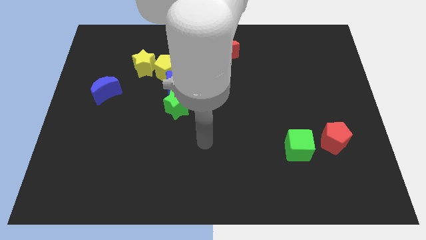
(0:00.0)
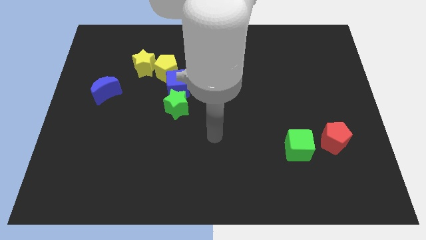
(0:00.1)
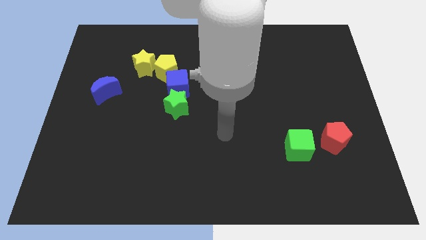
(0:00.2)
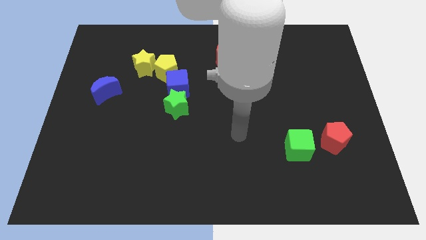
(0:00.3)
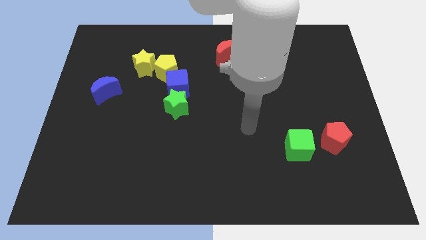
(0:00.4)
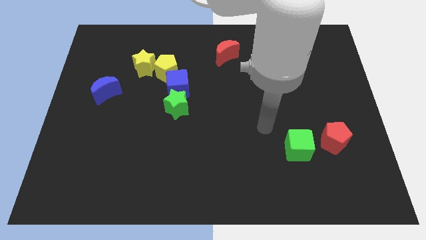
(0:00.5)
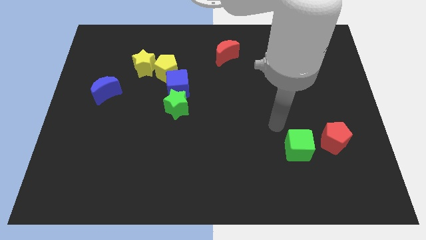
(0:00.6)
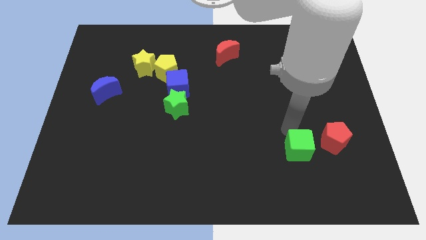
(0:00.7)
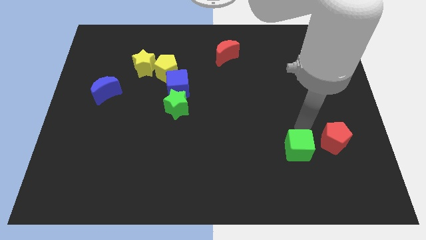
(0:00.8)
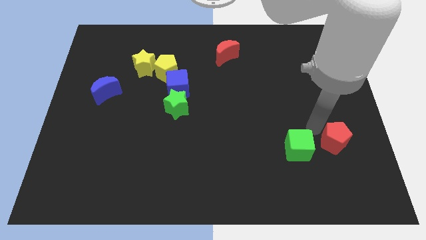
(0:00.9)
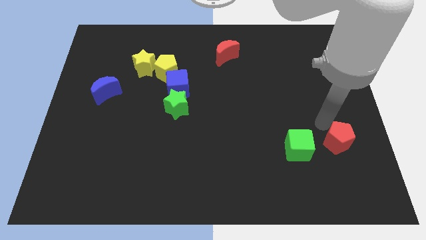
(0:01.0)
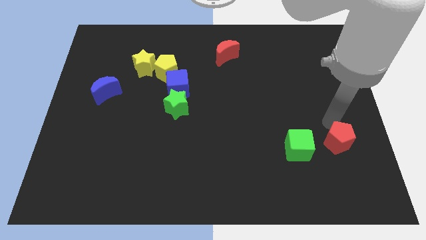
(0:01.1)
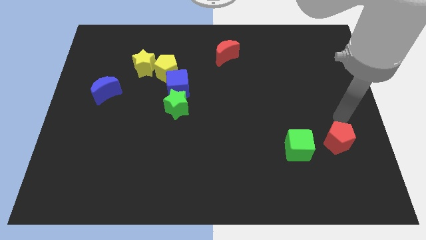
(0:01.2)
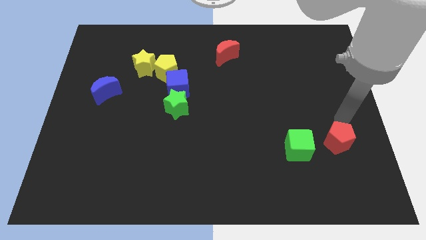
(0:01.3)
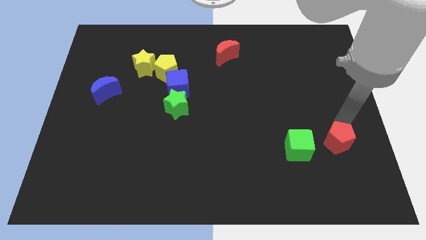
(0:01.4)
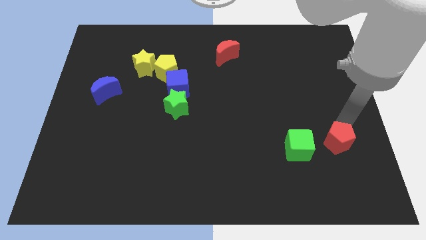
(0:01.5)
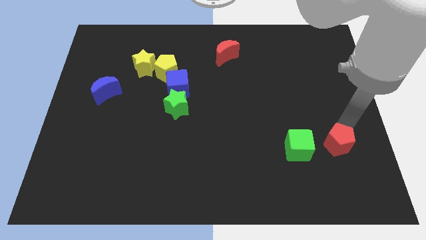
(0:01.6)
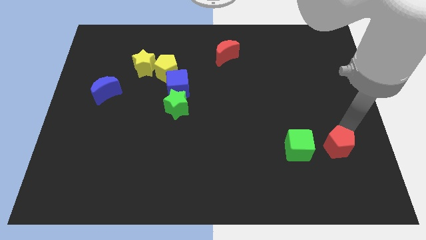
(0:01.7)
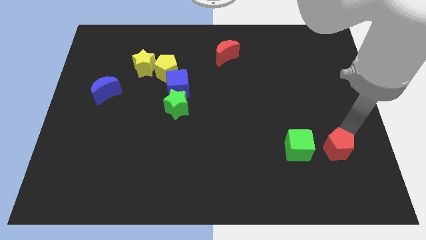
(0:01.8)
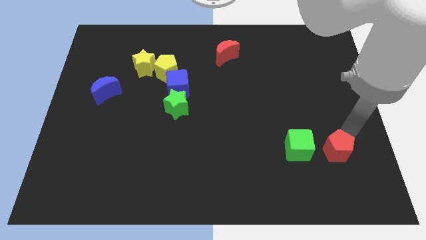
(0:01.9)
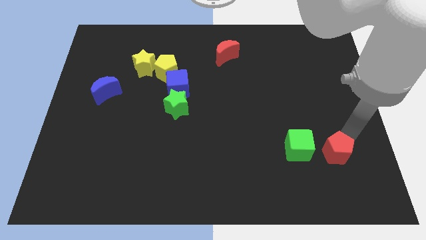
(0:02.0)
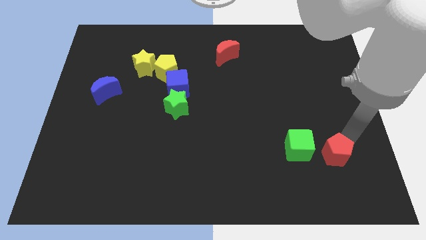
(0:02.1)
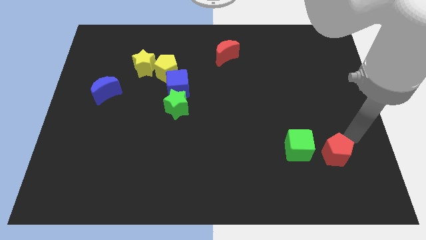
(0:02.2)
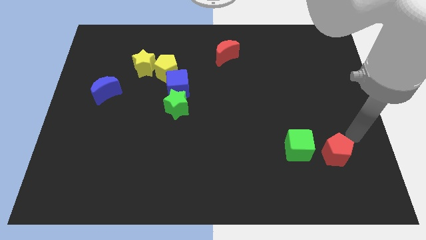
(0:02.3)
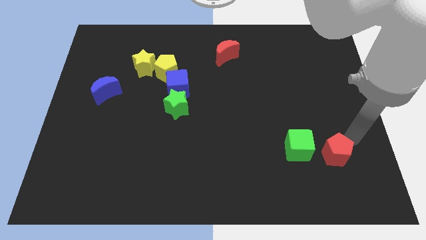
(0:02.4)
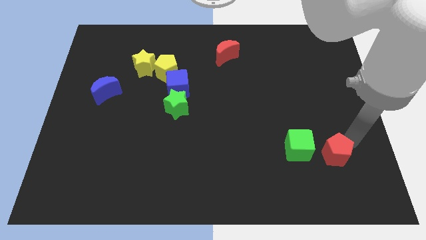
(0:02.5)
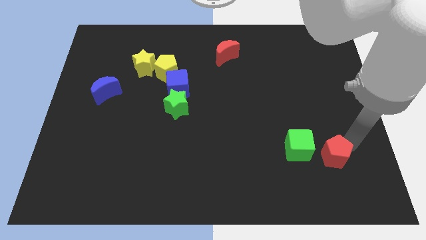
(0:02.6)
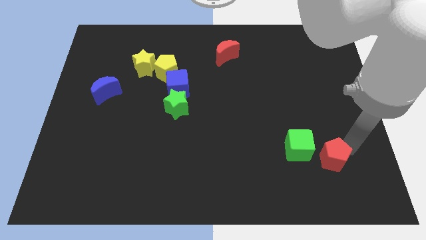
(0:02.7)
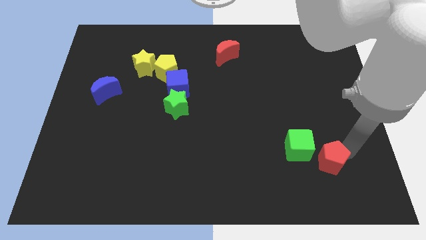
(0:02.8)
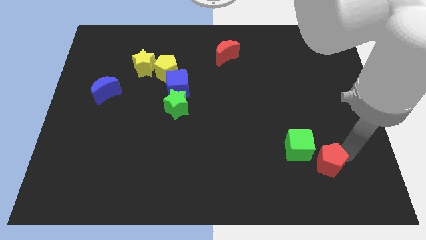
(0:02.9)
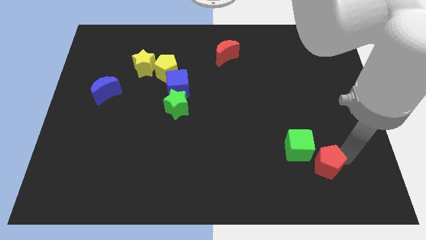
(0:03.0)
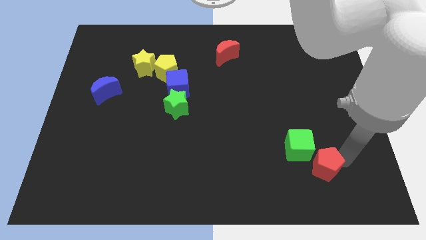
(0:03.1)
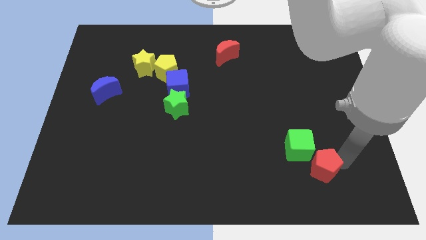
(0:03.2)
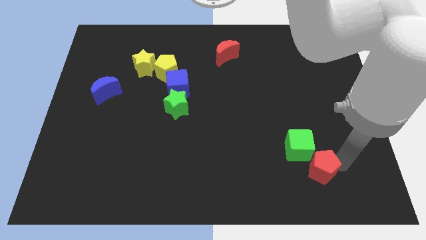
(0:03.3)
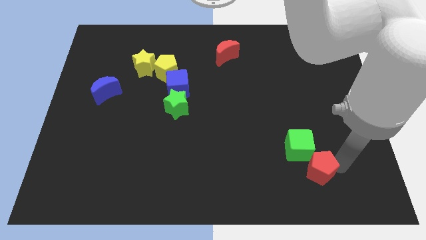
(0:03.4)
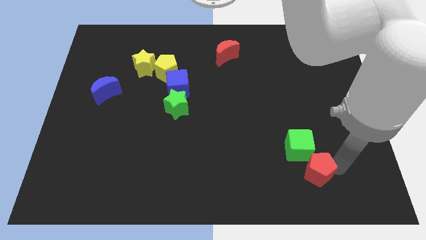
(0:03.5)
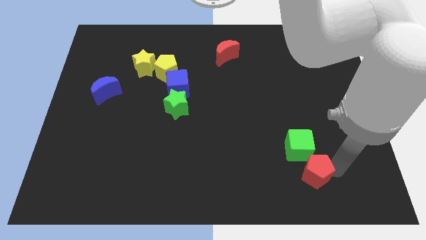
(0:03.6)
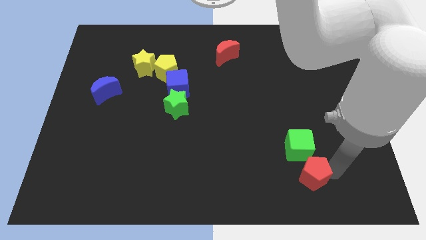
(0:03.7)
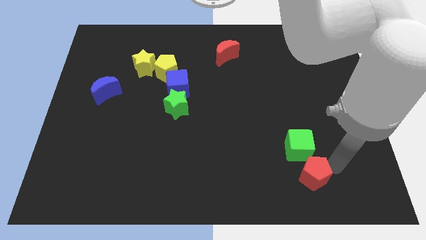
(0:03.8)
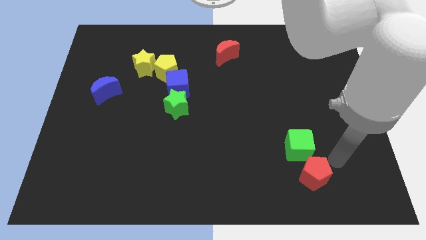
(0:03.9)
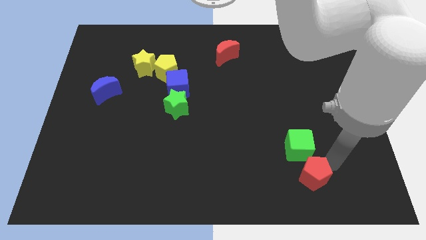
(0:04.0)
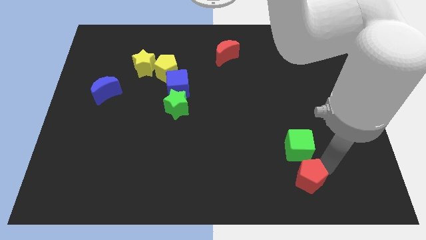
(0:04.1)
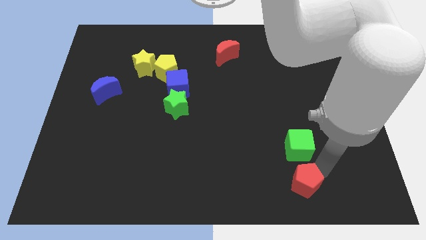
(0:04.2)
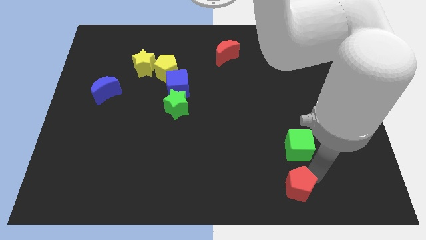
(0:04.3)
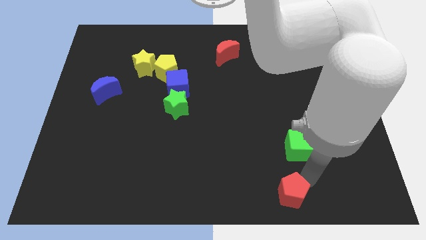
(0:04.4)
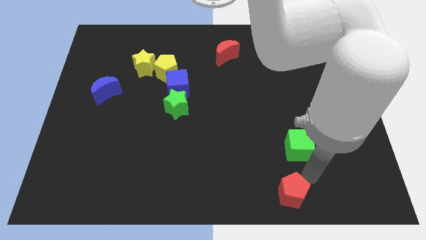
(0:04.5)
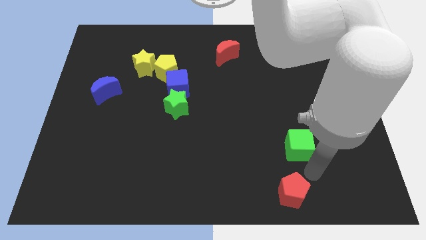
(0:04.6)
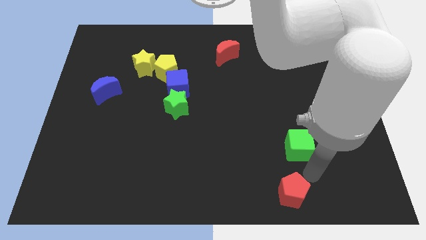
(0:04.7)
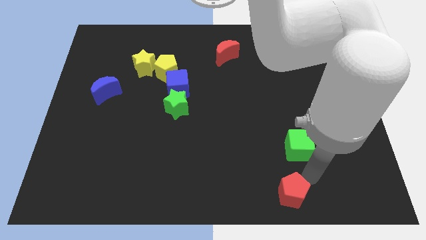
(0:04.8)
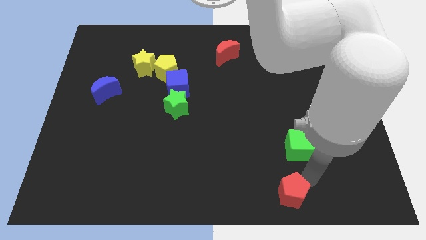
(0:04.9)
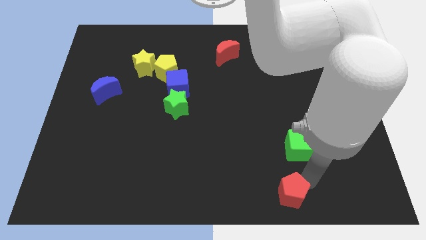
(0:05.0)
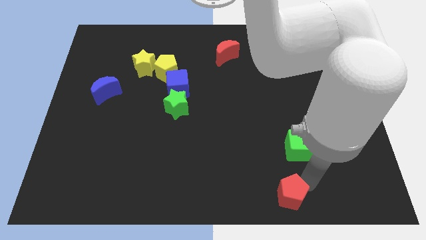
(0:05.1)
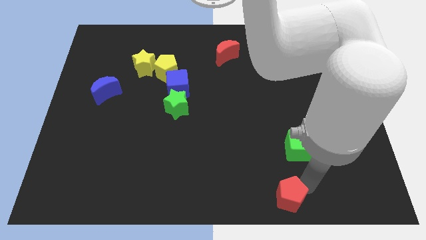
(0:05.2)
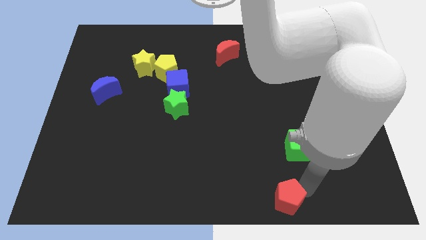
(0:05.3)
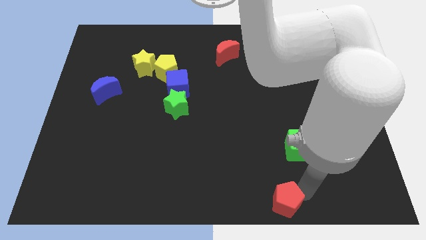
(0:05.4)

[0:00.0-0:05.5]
push the red pentagon to the bottom

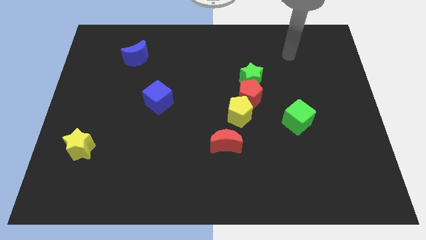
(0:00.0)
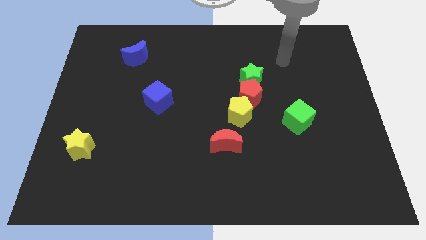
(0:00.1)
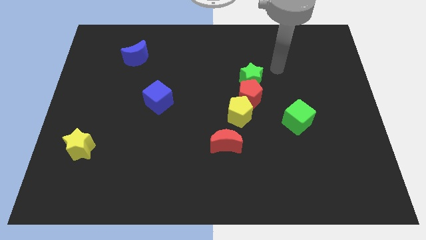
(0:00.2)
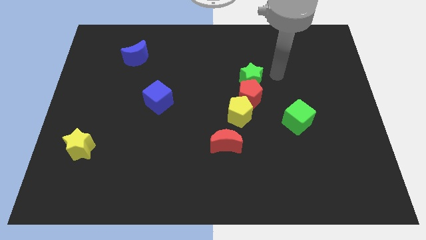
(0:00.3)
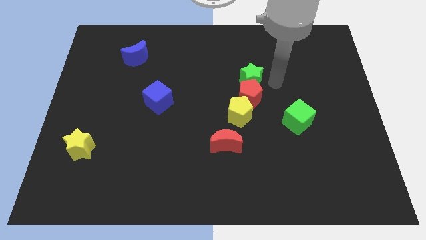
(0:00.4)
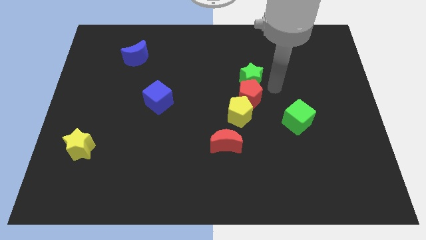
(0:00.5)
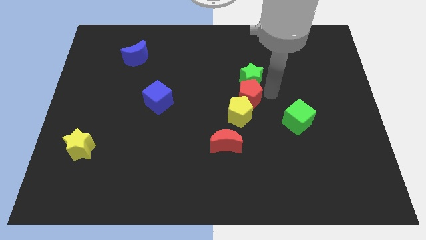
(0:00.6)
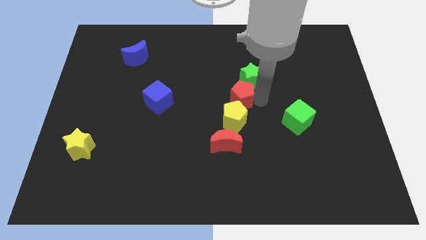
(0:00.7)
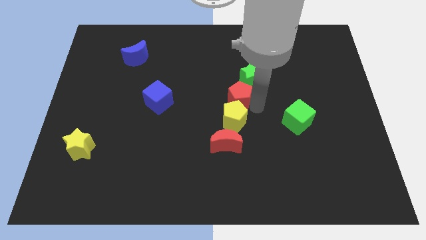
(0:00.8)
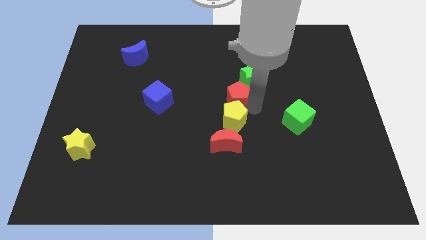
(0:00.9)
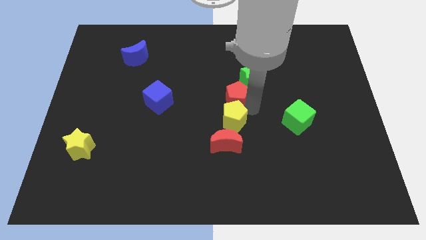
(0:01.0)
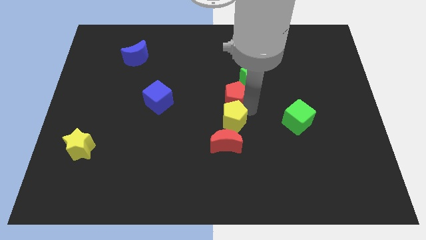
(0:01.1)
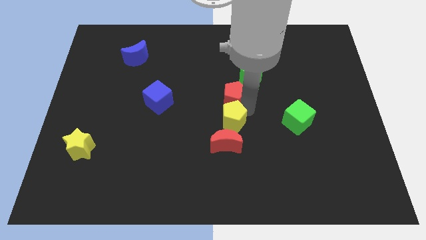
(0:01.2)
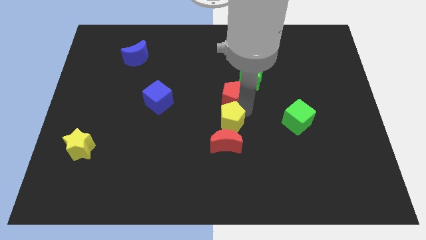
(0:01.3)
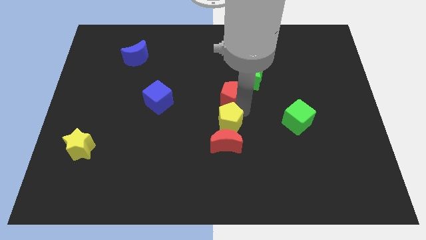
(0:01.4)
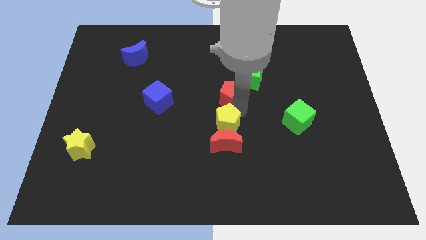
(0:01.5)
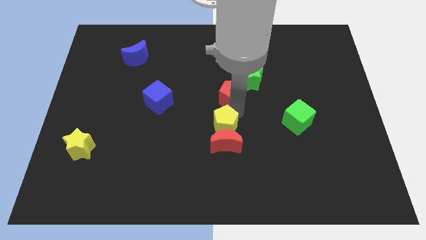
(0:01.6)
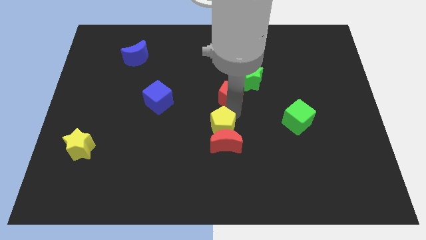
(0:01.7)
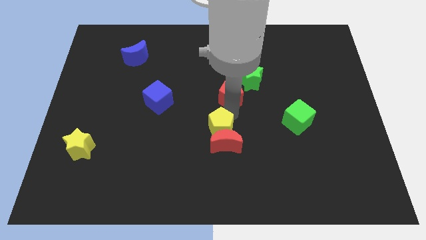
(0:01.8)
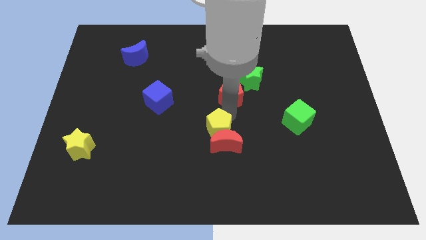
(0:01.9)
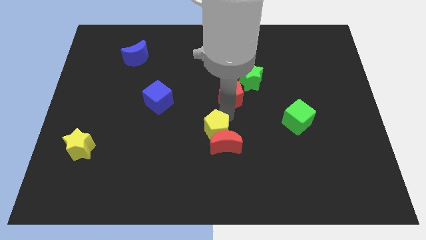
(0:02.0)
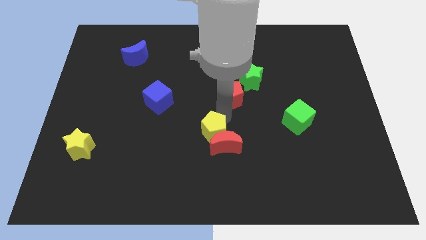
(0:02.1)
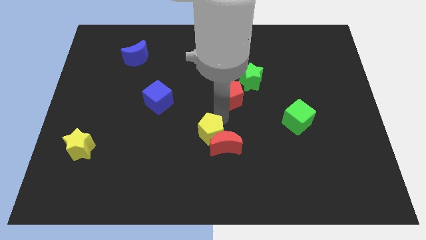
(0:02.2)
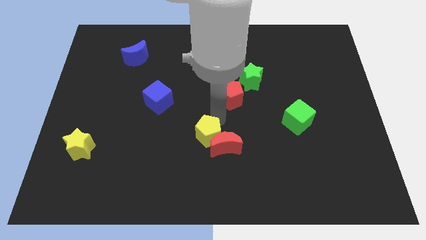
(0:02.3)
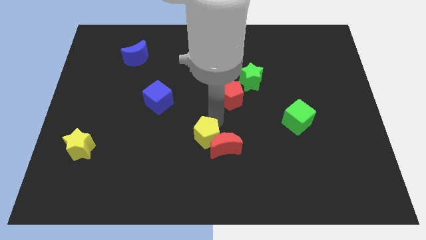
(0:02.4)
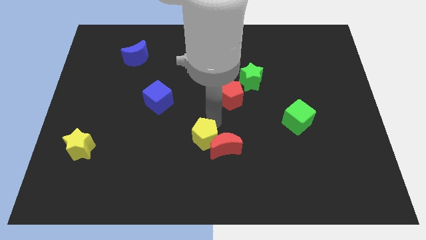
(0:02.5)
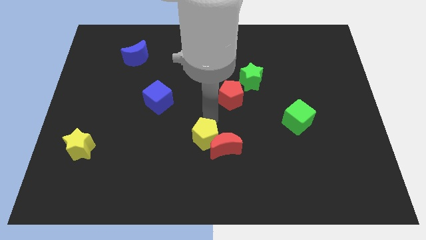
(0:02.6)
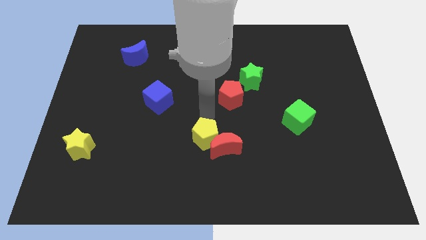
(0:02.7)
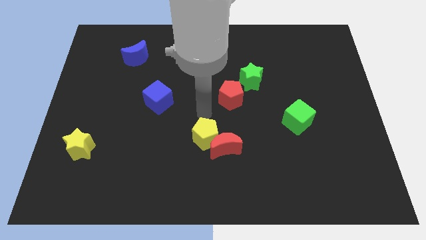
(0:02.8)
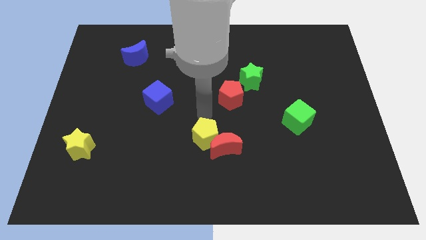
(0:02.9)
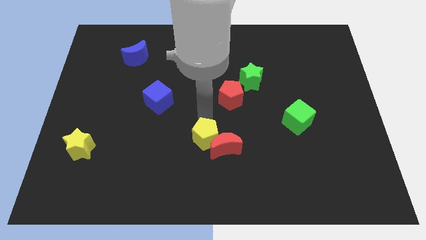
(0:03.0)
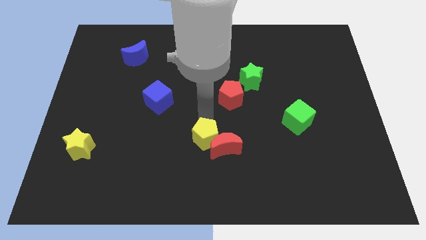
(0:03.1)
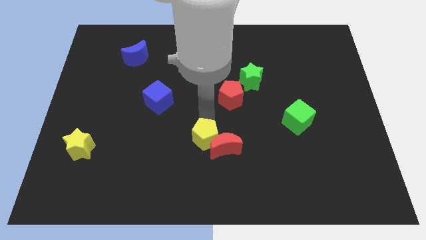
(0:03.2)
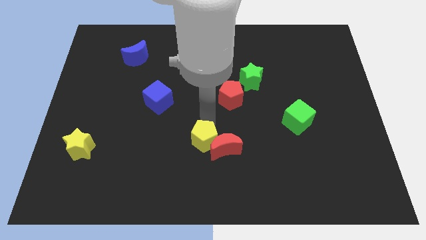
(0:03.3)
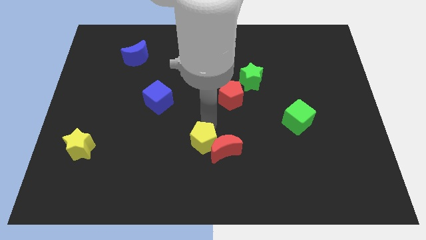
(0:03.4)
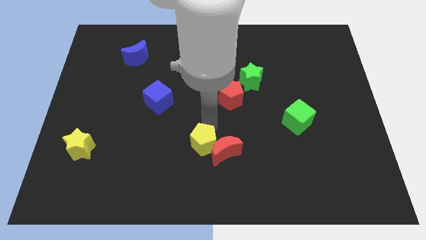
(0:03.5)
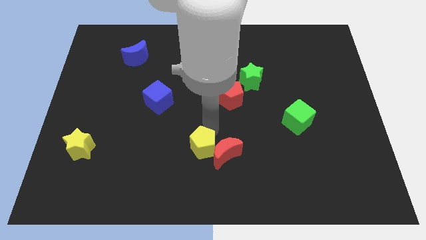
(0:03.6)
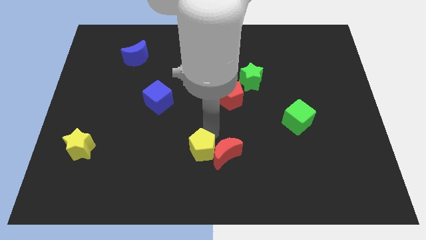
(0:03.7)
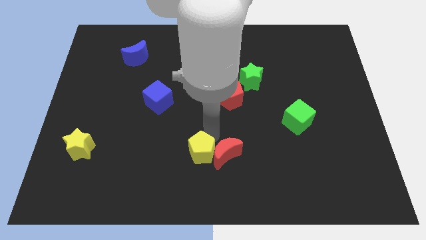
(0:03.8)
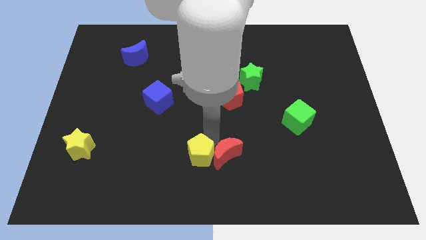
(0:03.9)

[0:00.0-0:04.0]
slide the yellow pentagon to the bottom side
